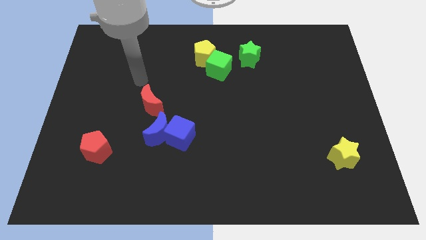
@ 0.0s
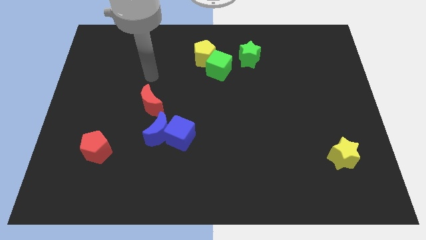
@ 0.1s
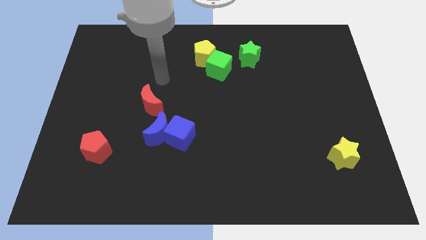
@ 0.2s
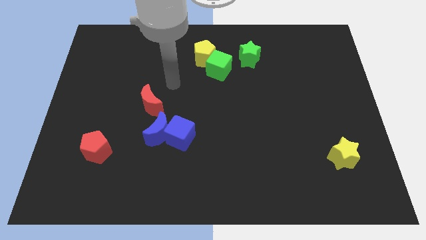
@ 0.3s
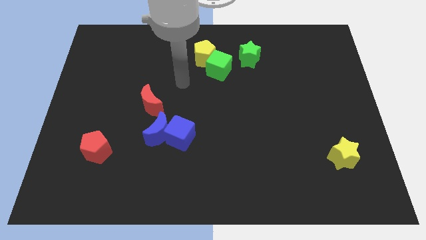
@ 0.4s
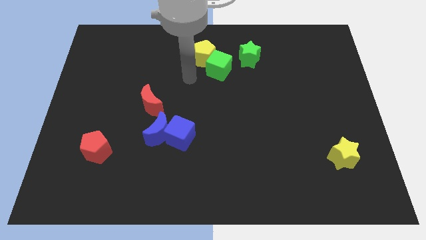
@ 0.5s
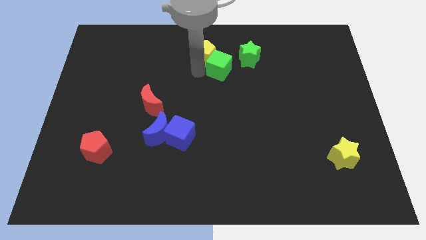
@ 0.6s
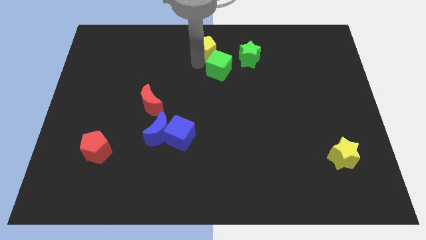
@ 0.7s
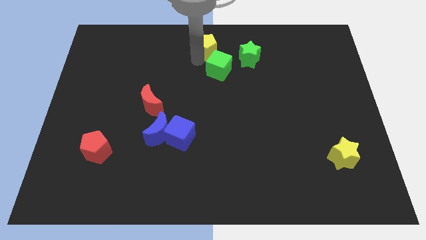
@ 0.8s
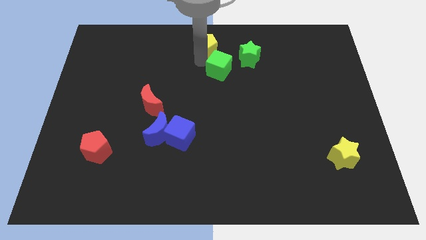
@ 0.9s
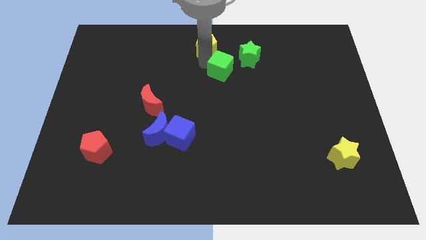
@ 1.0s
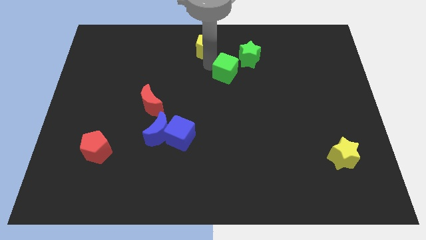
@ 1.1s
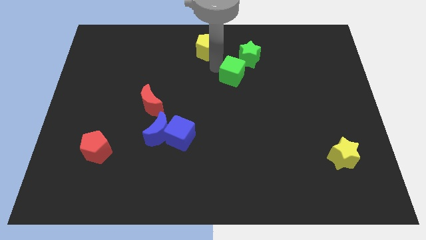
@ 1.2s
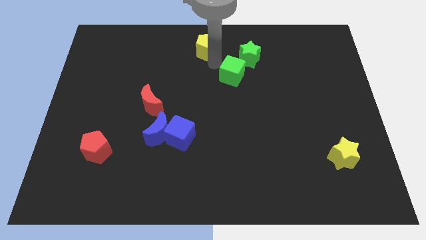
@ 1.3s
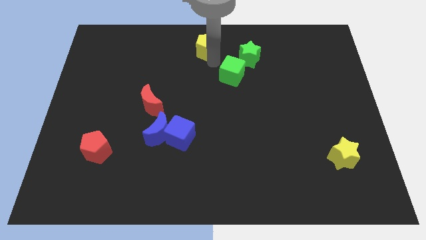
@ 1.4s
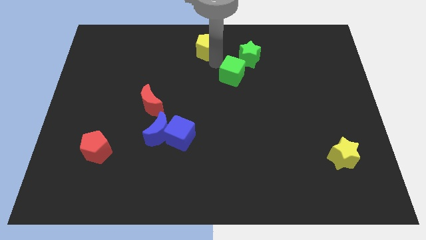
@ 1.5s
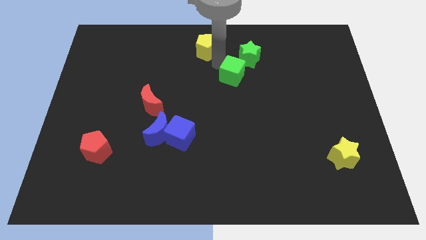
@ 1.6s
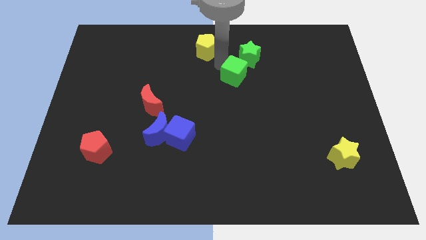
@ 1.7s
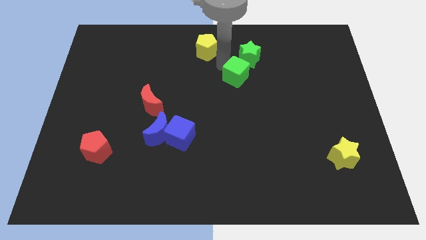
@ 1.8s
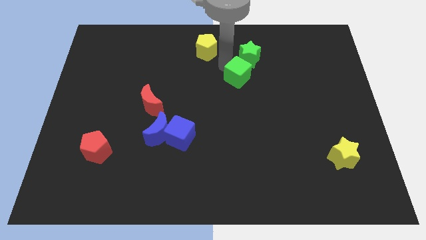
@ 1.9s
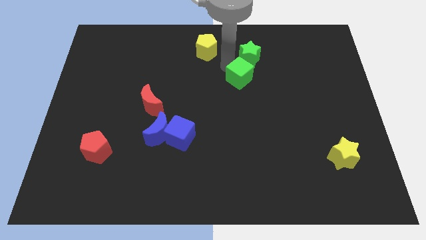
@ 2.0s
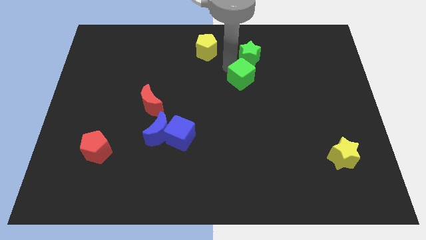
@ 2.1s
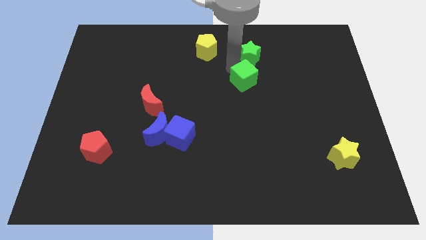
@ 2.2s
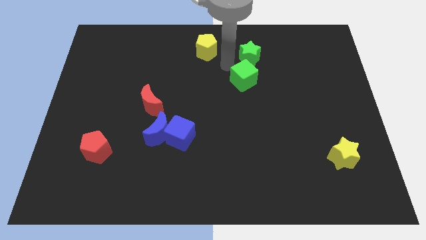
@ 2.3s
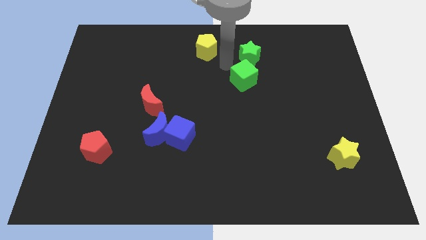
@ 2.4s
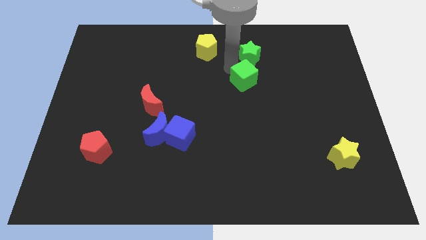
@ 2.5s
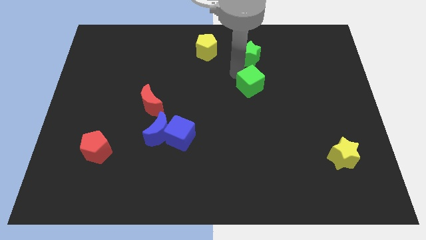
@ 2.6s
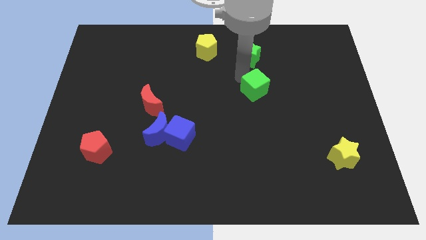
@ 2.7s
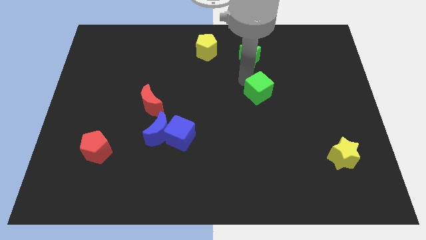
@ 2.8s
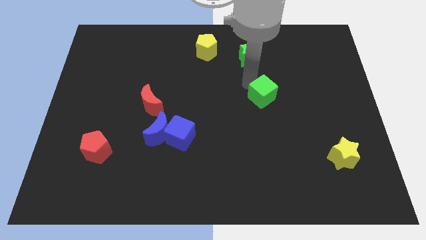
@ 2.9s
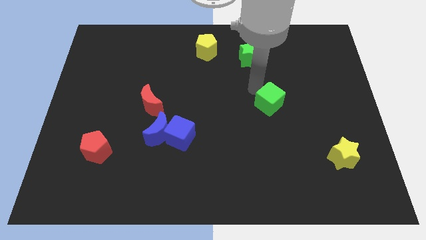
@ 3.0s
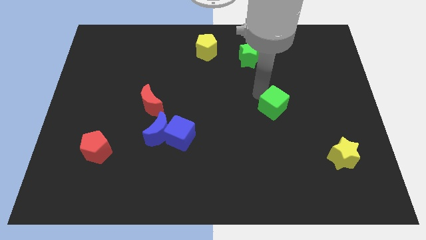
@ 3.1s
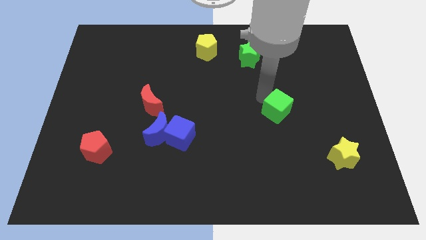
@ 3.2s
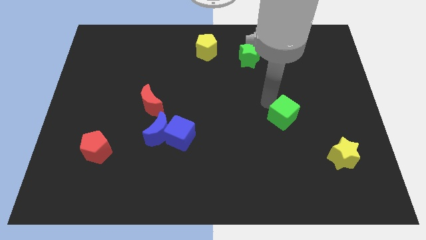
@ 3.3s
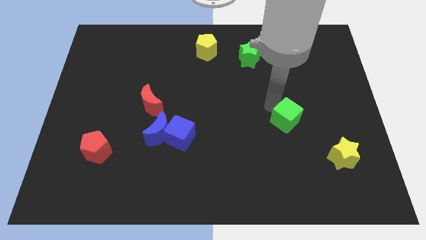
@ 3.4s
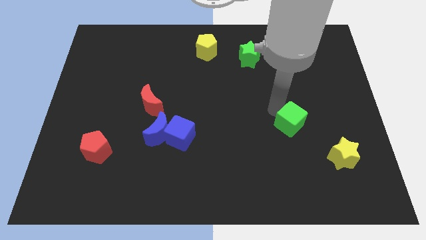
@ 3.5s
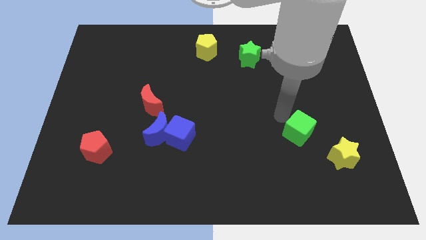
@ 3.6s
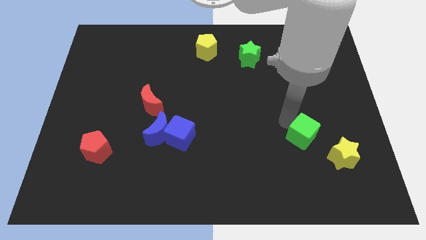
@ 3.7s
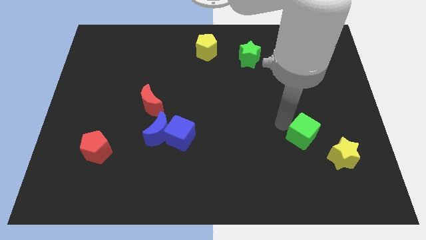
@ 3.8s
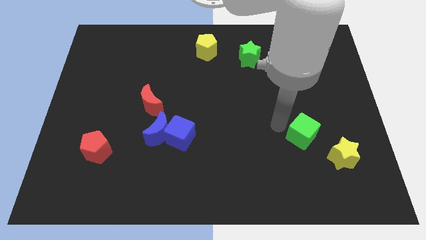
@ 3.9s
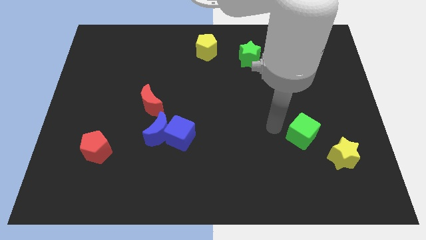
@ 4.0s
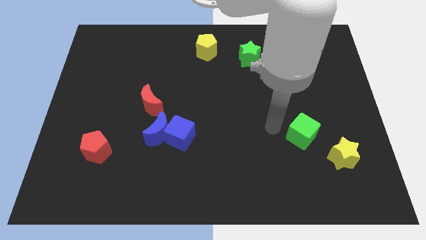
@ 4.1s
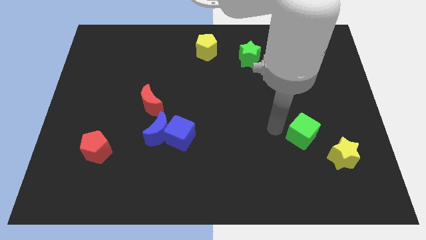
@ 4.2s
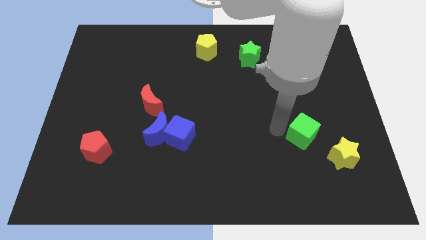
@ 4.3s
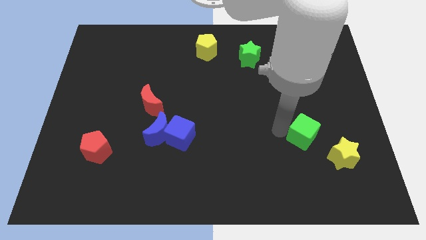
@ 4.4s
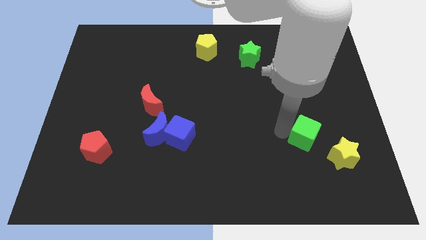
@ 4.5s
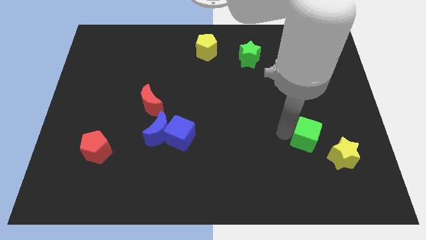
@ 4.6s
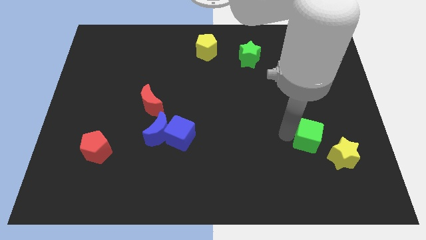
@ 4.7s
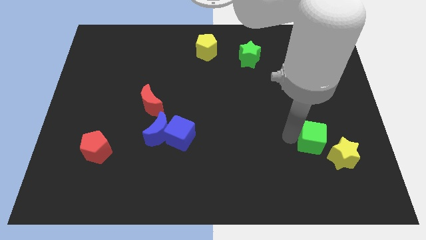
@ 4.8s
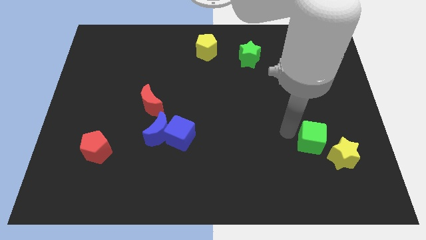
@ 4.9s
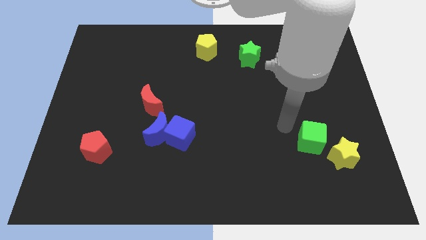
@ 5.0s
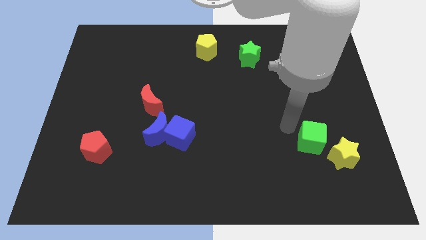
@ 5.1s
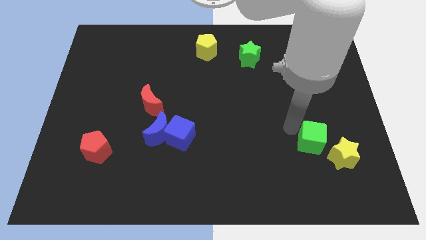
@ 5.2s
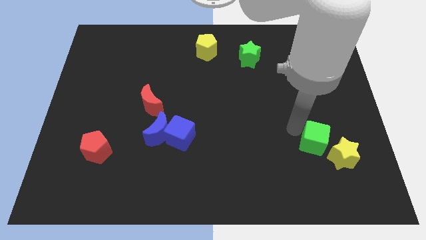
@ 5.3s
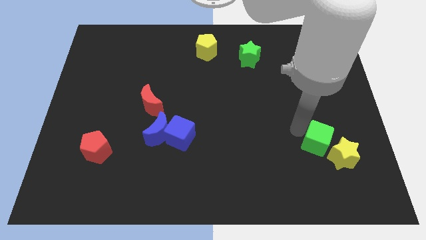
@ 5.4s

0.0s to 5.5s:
move the green cube next to the yellow star

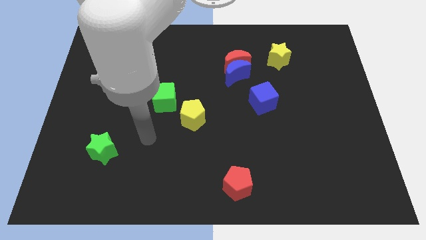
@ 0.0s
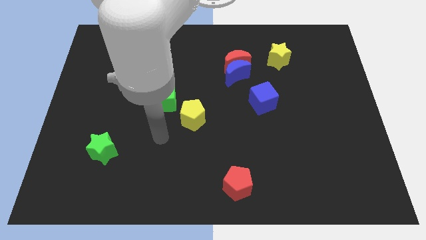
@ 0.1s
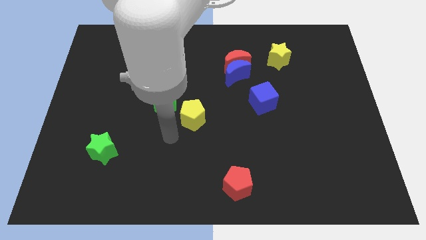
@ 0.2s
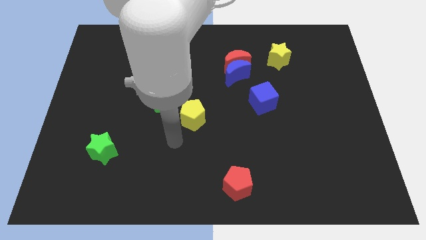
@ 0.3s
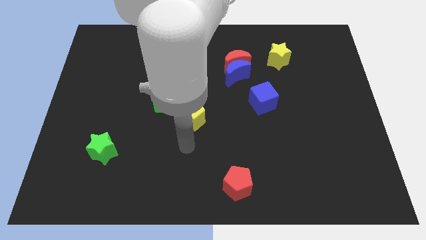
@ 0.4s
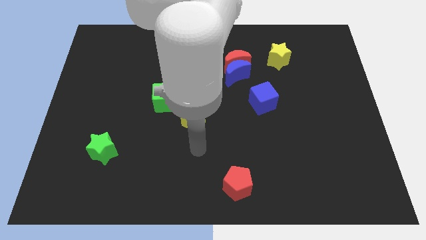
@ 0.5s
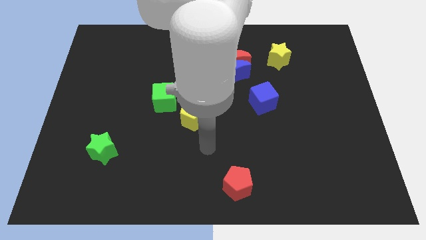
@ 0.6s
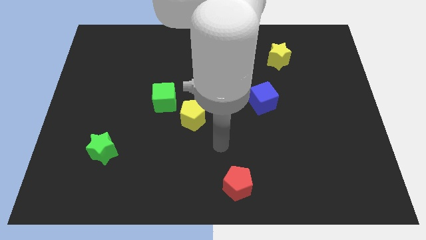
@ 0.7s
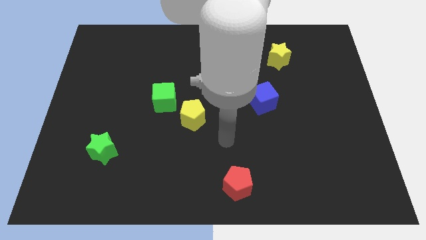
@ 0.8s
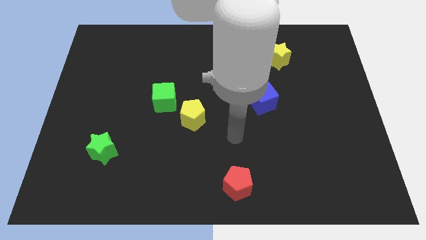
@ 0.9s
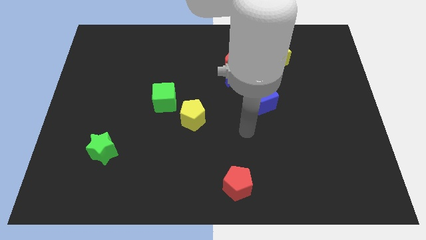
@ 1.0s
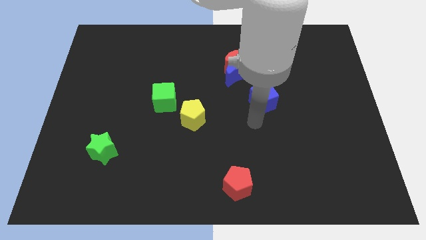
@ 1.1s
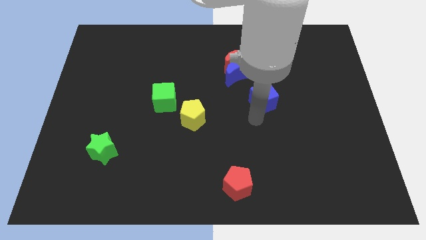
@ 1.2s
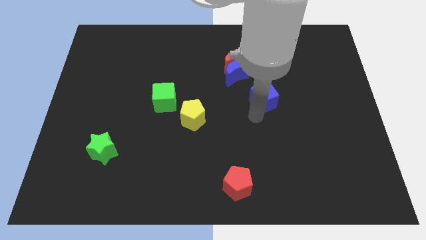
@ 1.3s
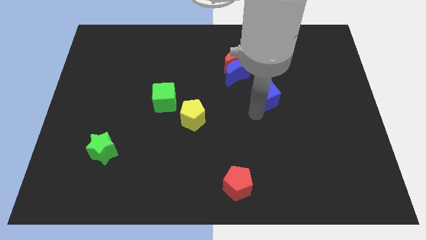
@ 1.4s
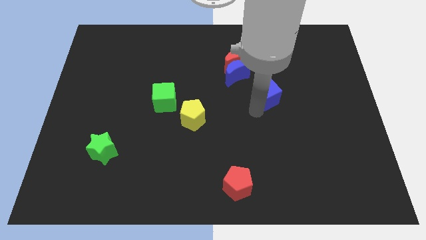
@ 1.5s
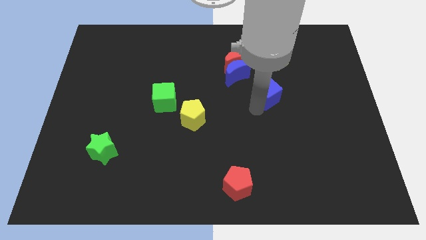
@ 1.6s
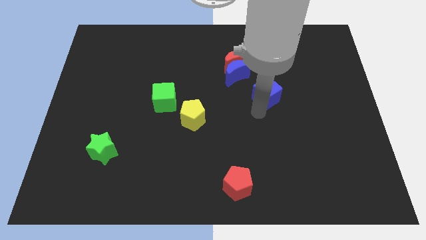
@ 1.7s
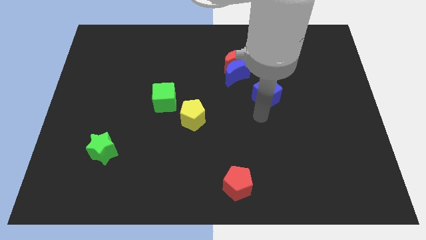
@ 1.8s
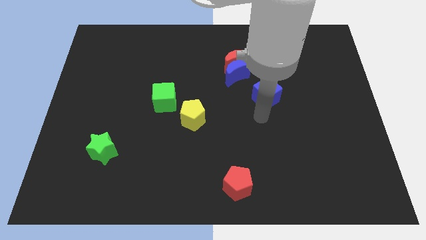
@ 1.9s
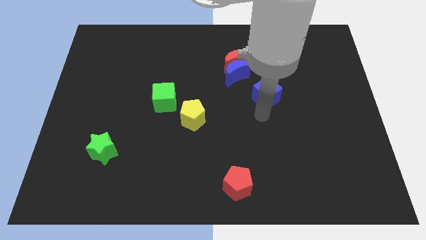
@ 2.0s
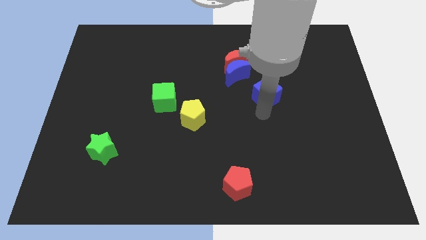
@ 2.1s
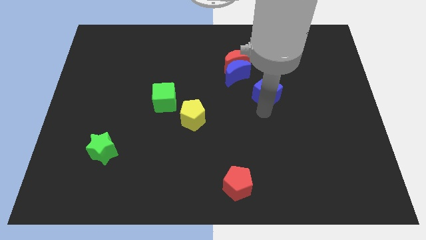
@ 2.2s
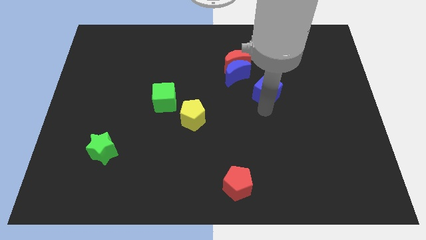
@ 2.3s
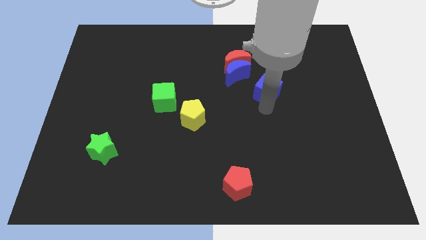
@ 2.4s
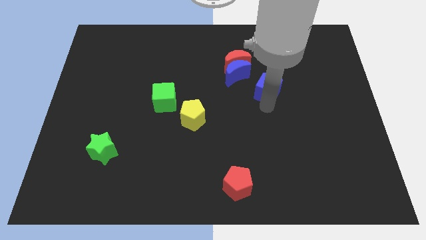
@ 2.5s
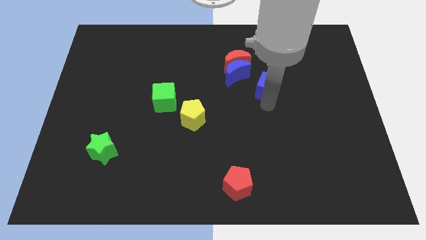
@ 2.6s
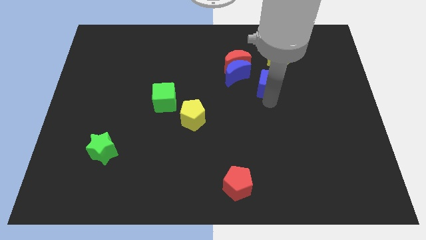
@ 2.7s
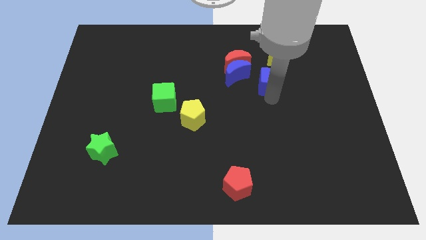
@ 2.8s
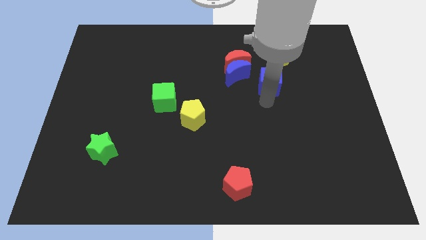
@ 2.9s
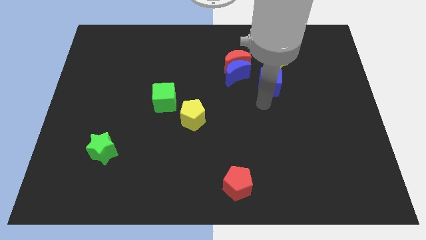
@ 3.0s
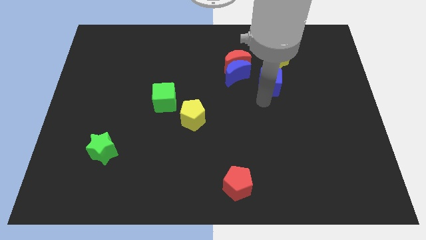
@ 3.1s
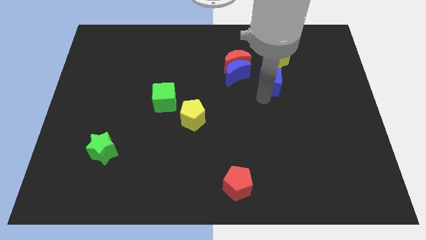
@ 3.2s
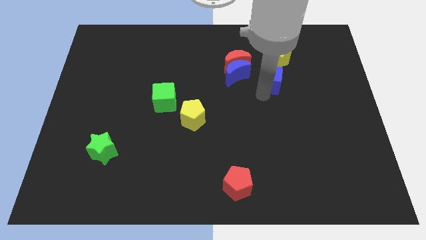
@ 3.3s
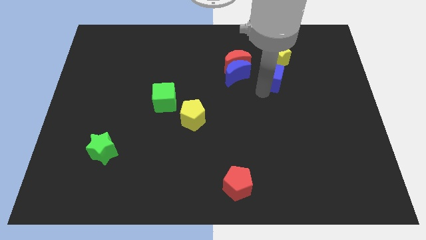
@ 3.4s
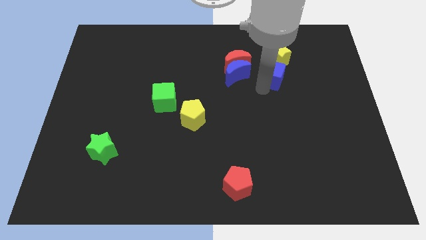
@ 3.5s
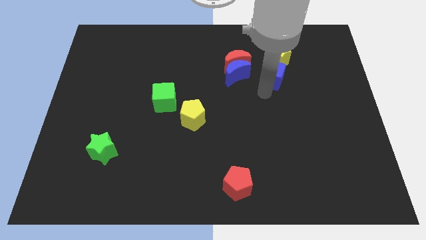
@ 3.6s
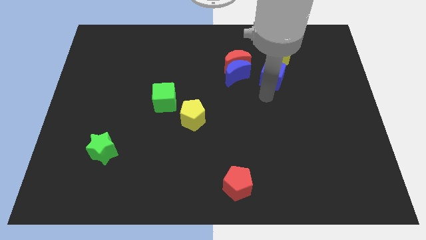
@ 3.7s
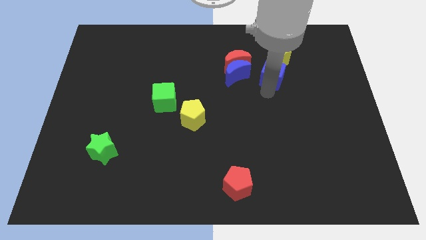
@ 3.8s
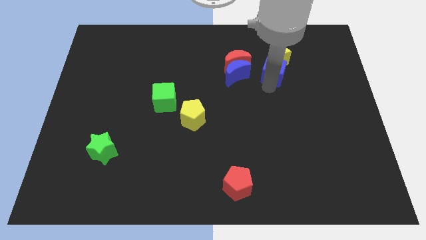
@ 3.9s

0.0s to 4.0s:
push the blue cube to the yellow star
